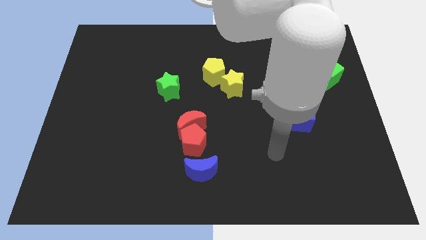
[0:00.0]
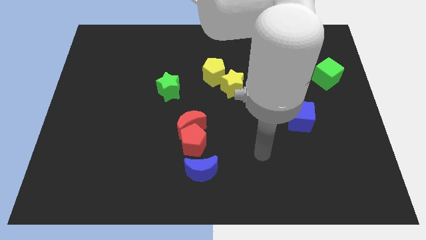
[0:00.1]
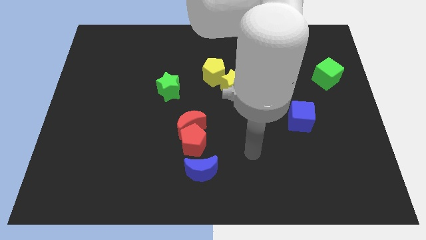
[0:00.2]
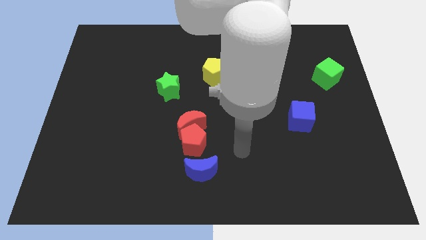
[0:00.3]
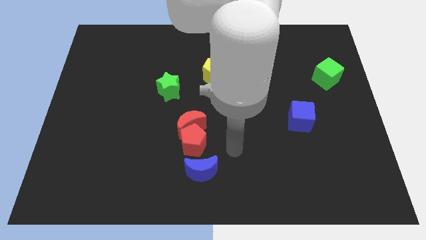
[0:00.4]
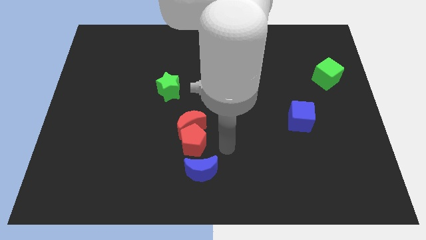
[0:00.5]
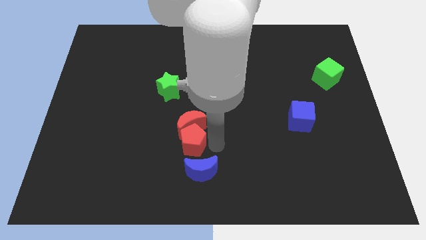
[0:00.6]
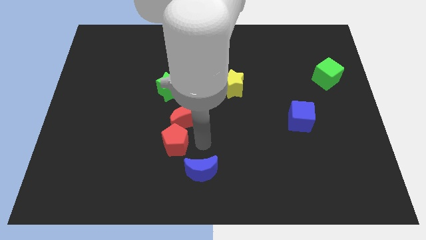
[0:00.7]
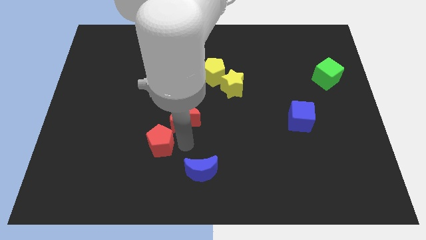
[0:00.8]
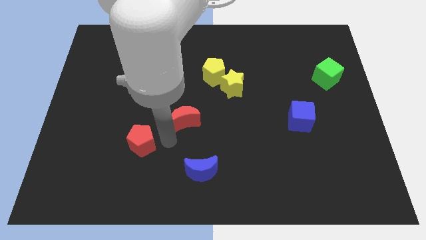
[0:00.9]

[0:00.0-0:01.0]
move the red moon away from the red pentagon

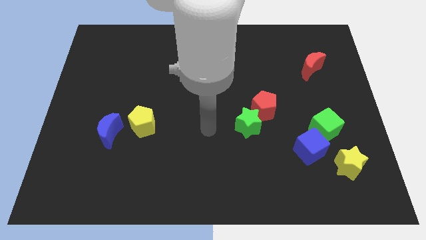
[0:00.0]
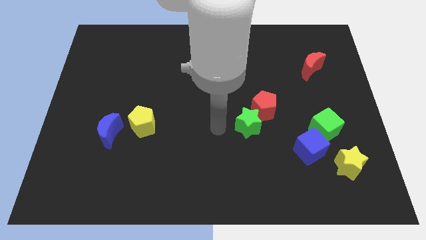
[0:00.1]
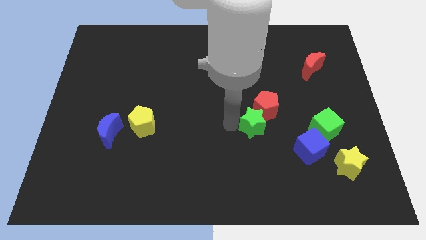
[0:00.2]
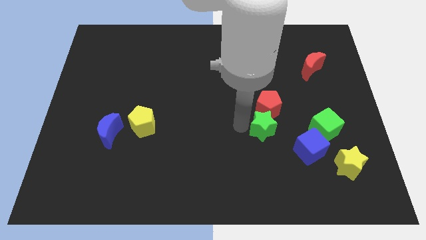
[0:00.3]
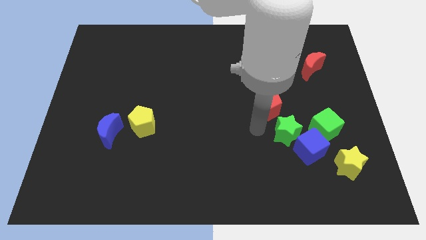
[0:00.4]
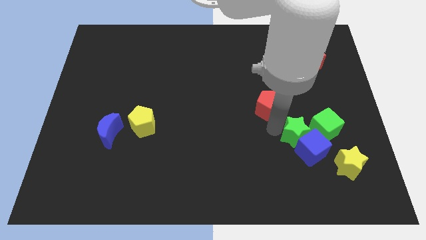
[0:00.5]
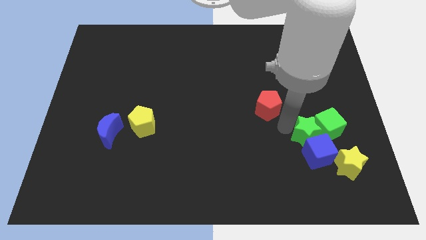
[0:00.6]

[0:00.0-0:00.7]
move the red pentagon away from the green star

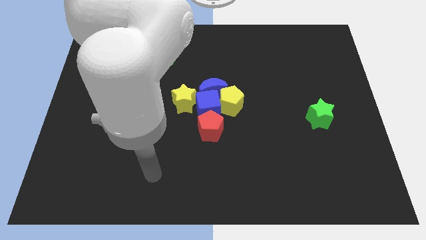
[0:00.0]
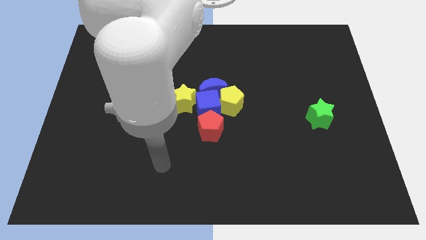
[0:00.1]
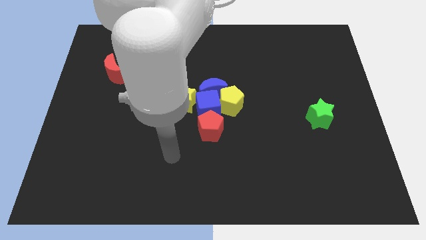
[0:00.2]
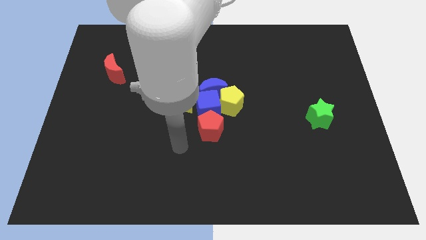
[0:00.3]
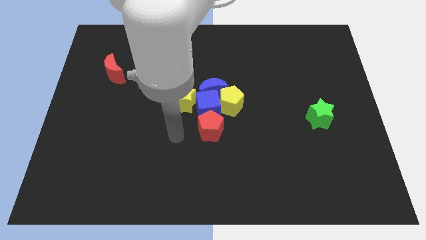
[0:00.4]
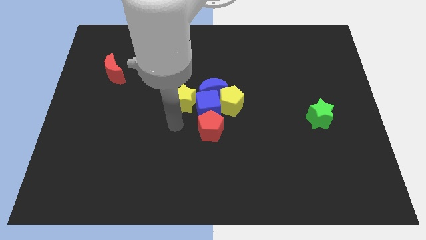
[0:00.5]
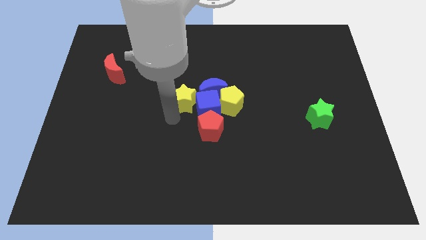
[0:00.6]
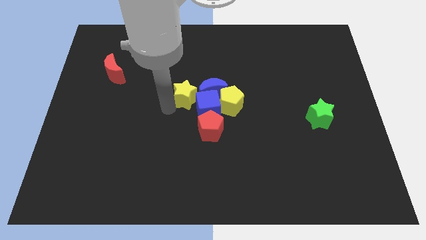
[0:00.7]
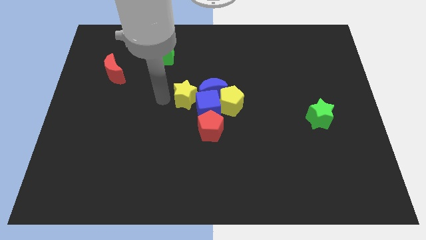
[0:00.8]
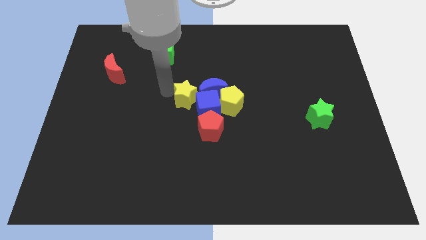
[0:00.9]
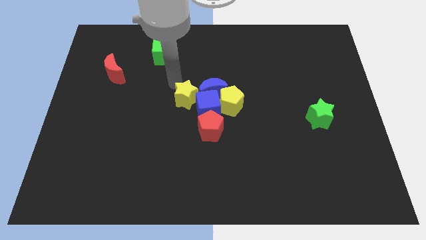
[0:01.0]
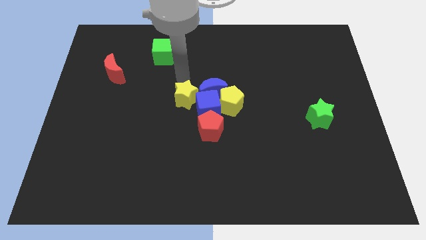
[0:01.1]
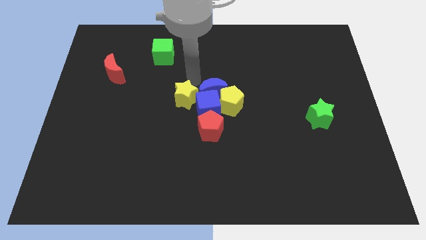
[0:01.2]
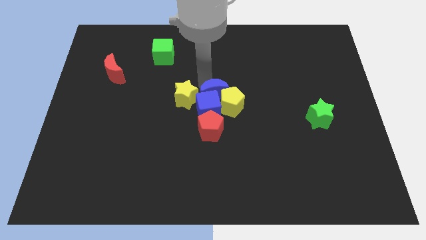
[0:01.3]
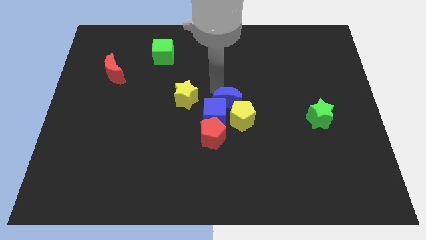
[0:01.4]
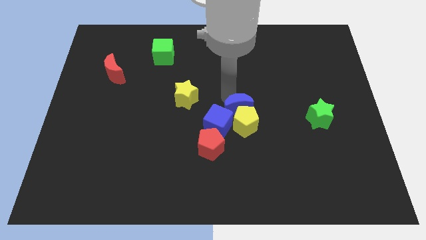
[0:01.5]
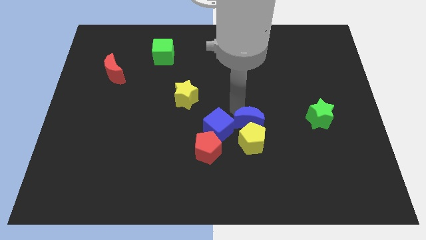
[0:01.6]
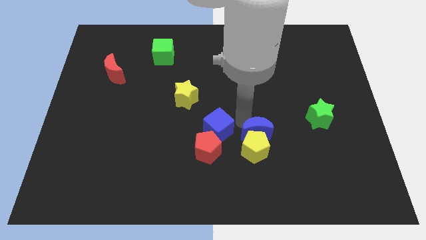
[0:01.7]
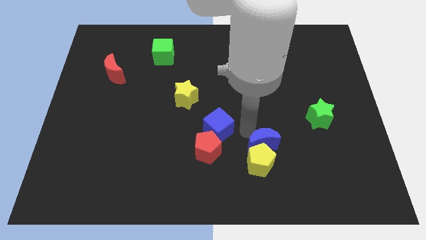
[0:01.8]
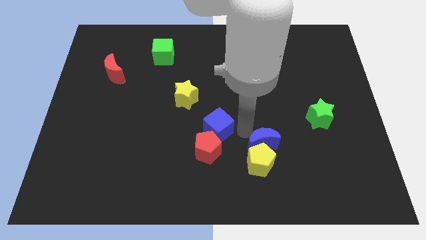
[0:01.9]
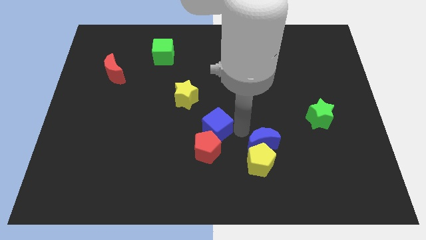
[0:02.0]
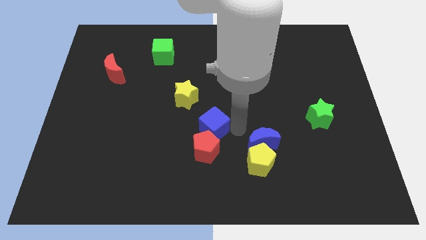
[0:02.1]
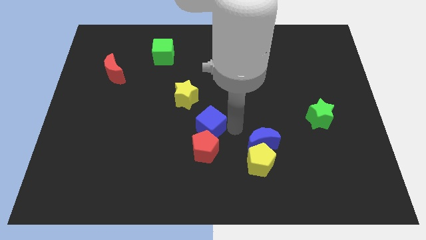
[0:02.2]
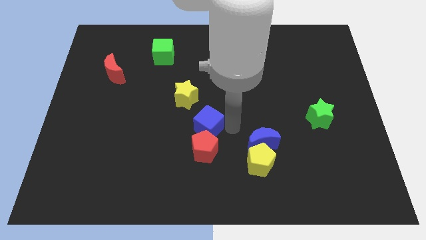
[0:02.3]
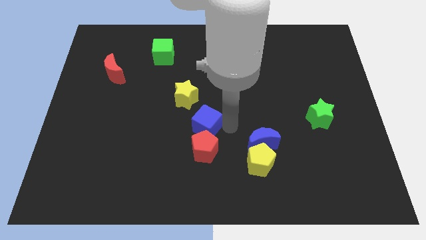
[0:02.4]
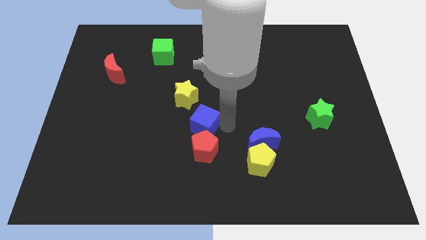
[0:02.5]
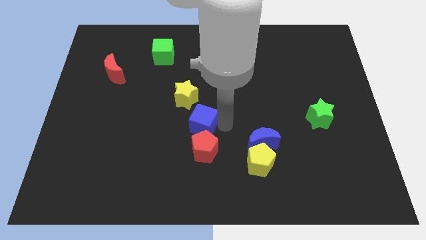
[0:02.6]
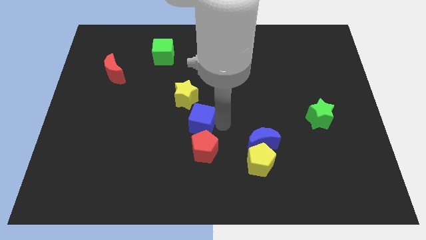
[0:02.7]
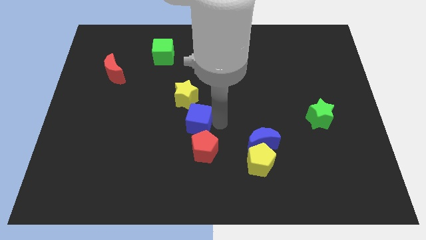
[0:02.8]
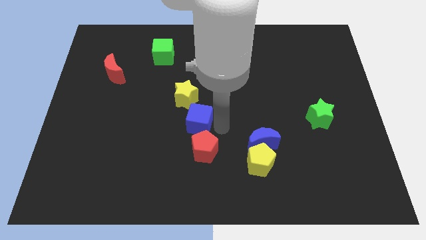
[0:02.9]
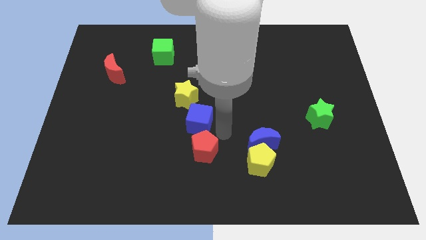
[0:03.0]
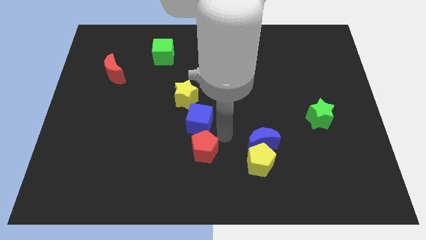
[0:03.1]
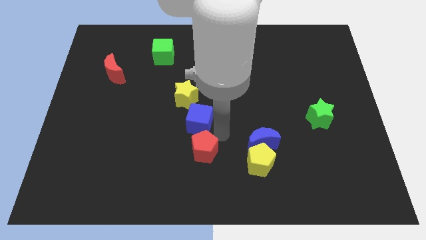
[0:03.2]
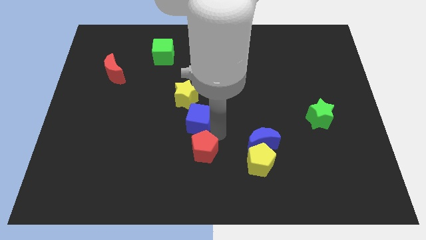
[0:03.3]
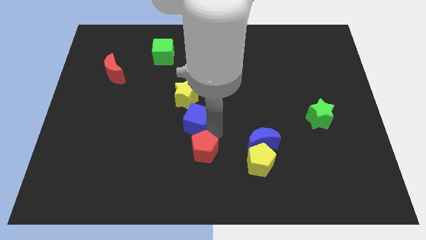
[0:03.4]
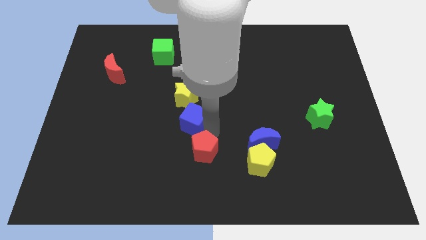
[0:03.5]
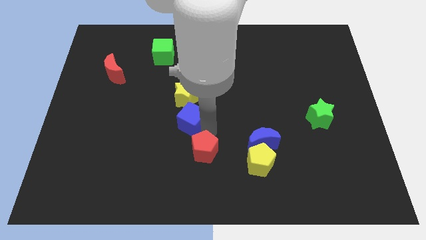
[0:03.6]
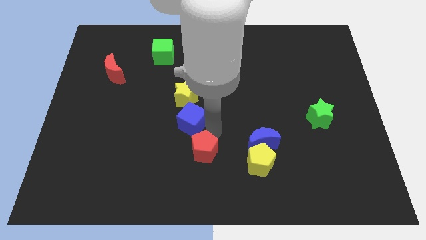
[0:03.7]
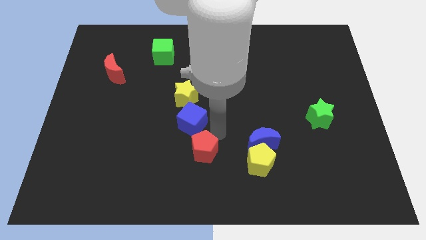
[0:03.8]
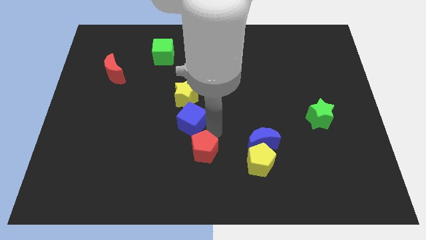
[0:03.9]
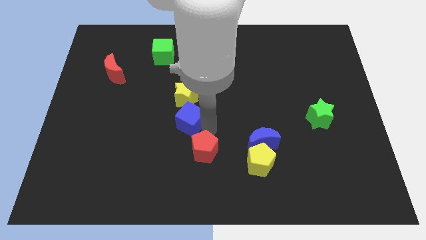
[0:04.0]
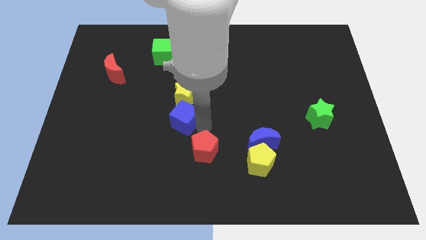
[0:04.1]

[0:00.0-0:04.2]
separate the blue cube from the clump

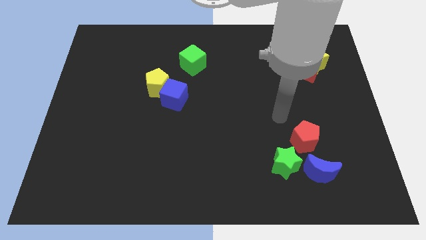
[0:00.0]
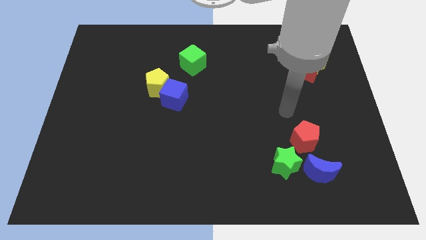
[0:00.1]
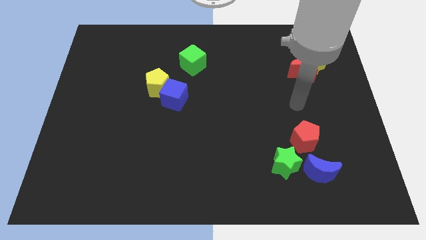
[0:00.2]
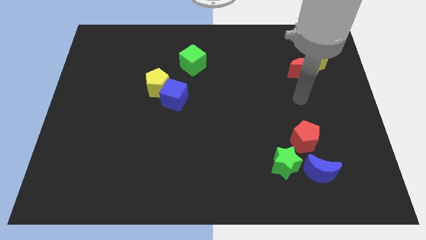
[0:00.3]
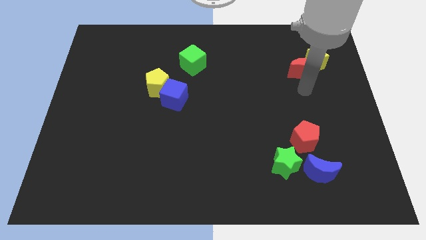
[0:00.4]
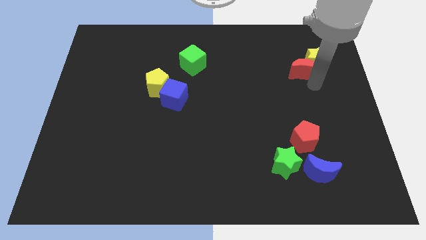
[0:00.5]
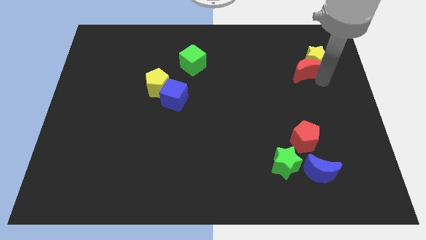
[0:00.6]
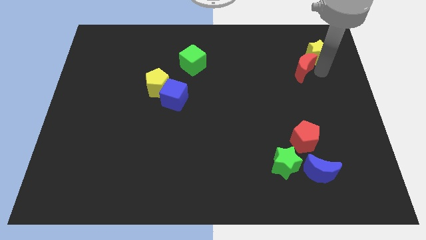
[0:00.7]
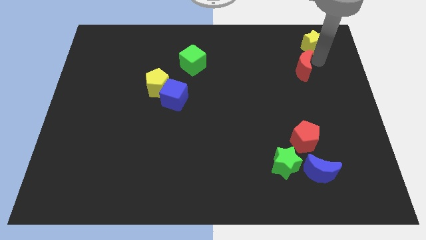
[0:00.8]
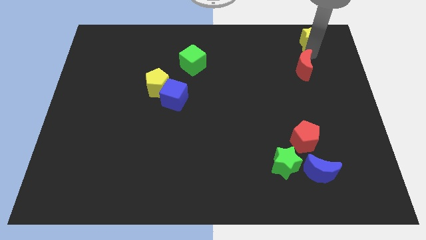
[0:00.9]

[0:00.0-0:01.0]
pull the red moon apart from the yellow star

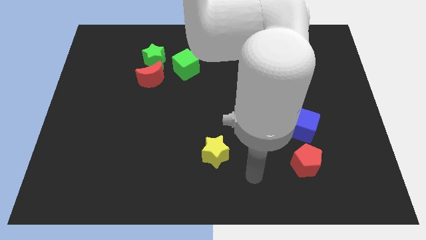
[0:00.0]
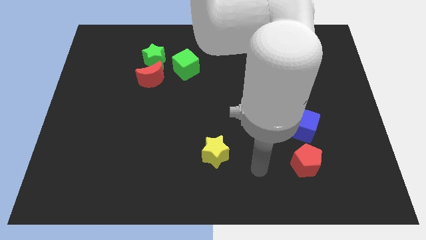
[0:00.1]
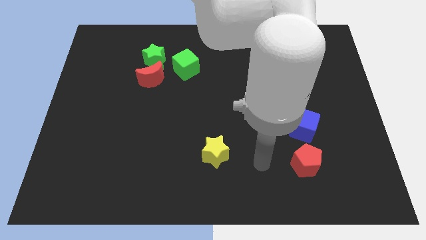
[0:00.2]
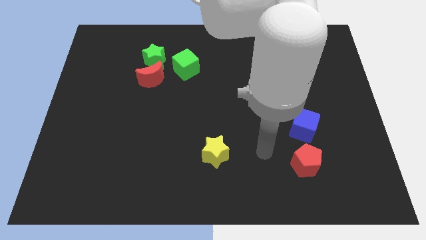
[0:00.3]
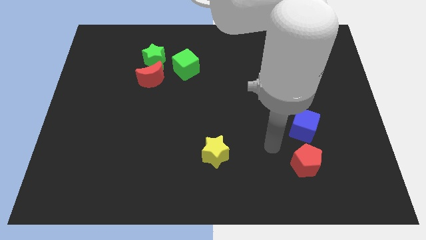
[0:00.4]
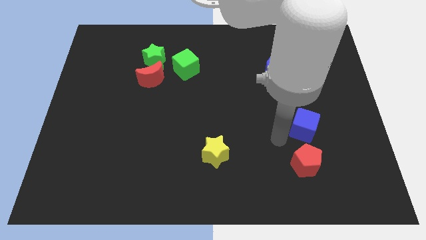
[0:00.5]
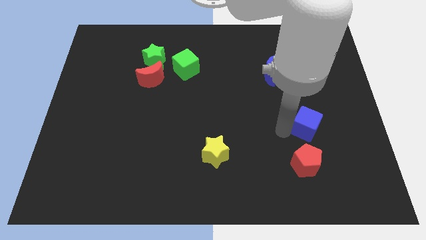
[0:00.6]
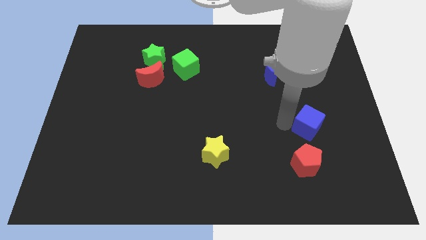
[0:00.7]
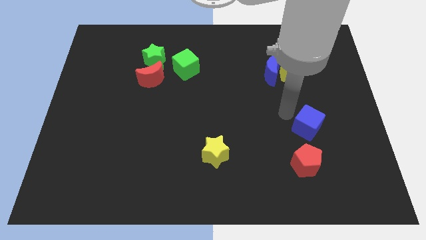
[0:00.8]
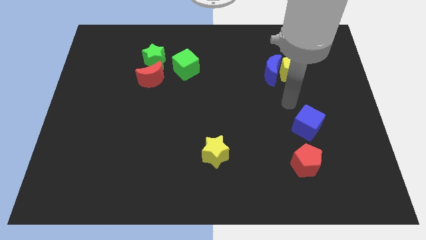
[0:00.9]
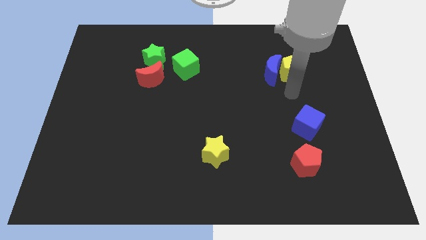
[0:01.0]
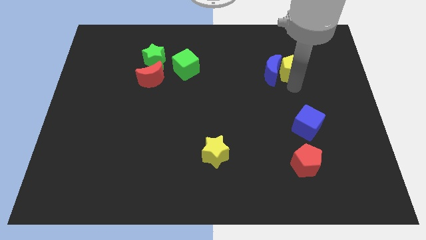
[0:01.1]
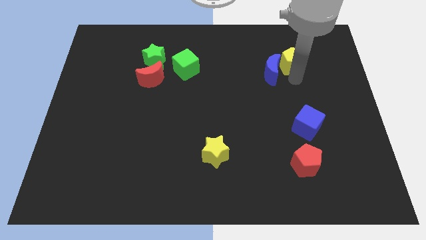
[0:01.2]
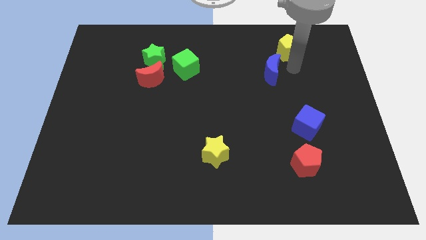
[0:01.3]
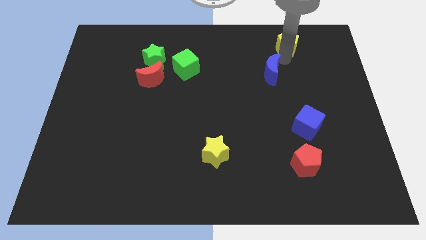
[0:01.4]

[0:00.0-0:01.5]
separate the blue moon from the yellow pentagon

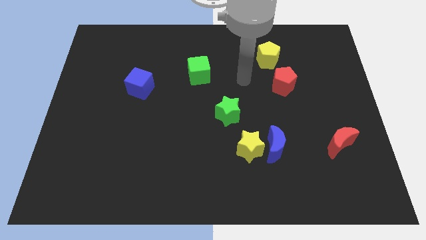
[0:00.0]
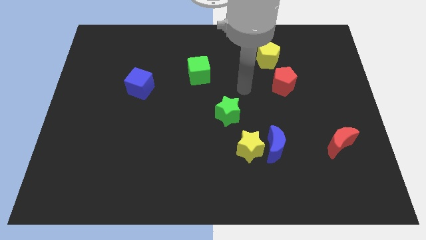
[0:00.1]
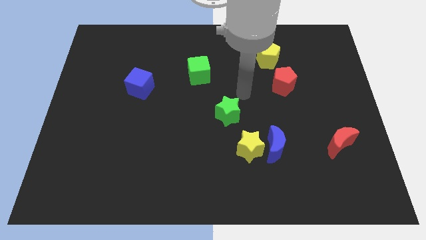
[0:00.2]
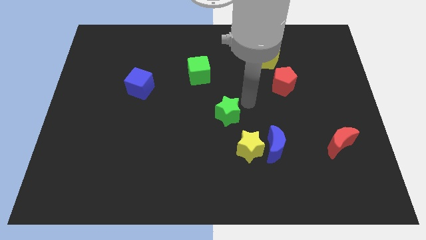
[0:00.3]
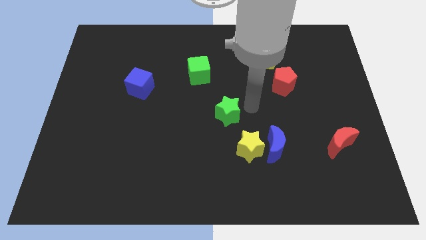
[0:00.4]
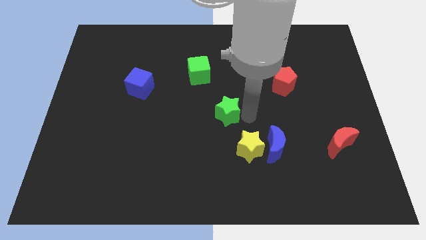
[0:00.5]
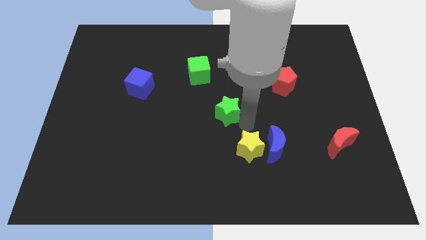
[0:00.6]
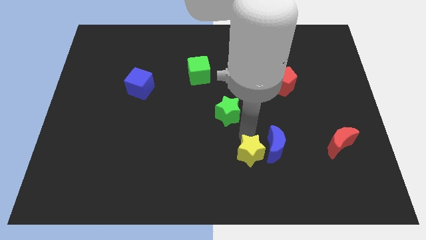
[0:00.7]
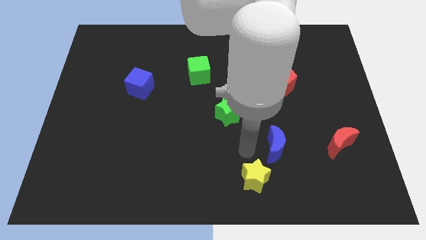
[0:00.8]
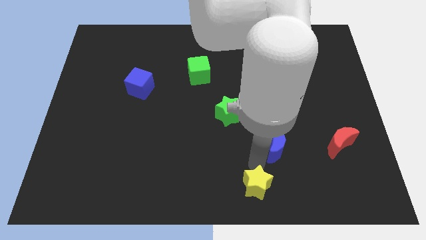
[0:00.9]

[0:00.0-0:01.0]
pull the blue moon apart from the yellow star
